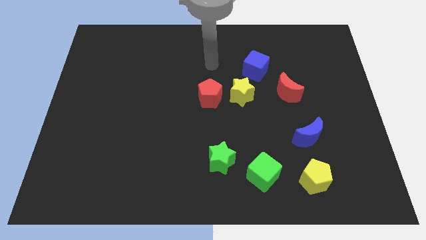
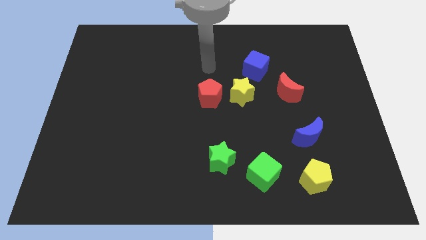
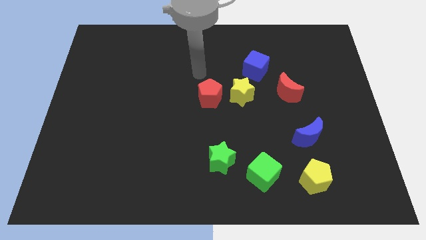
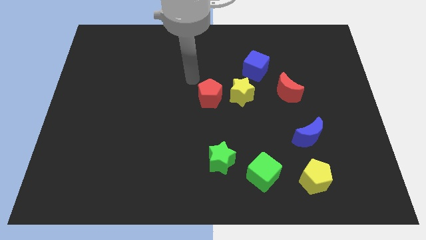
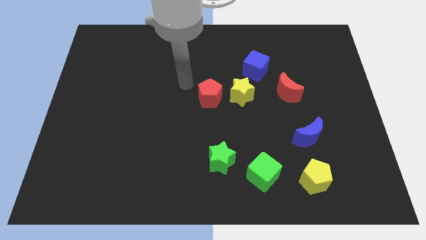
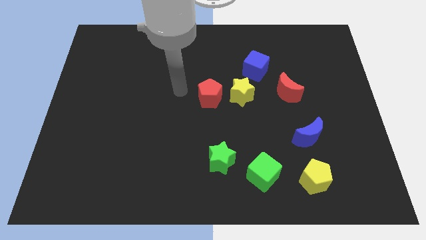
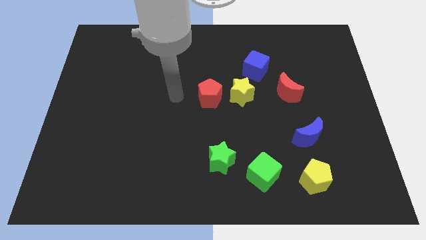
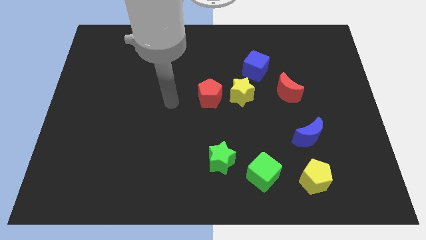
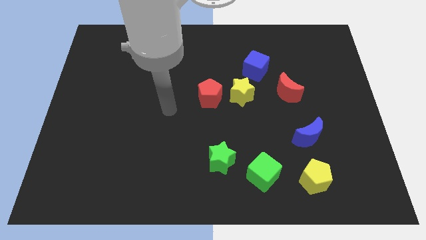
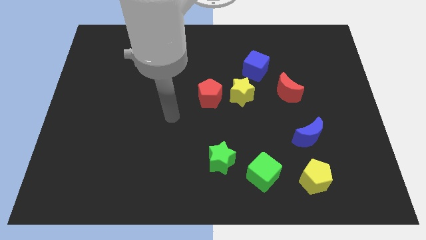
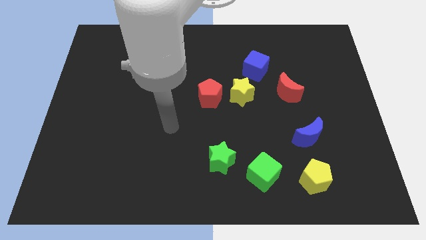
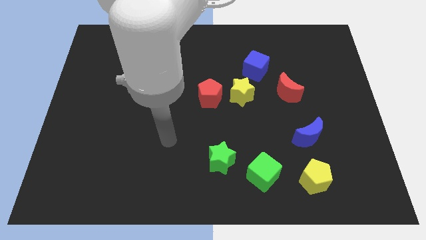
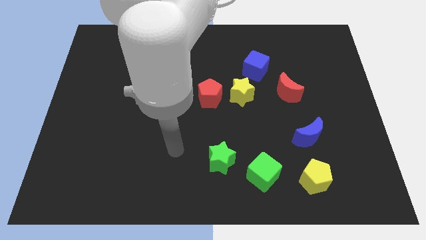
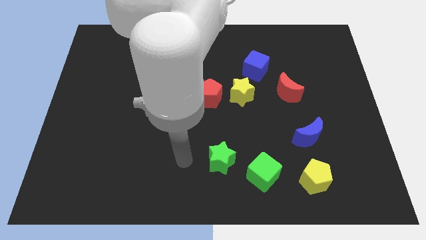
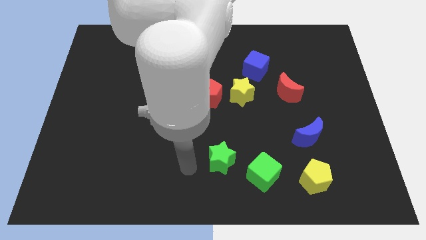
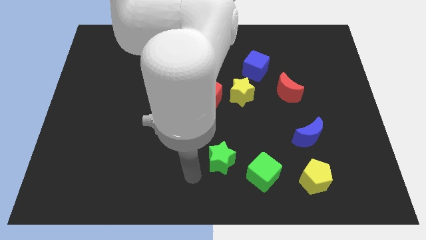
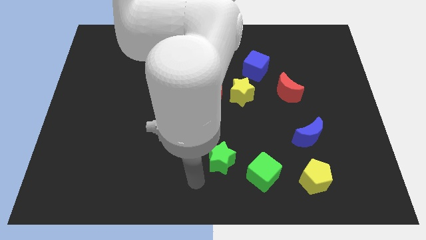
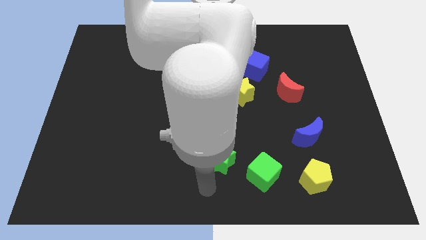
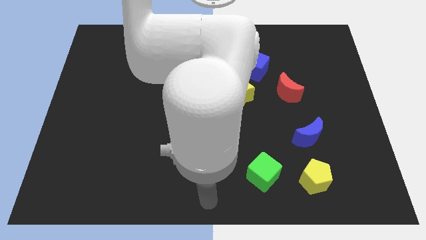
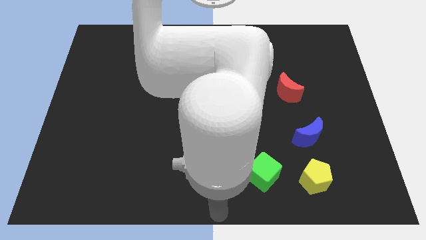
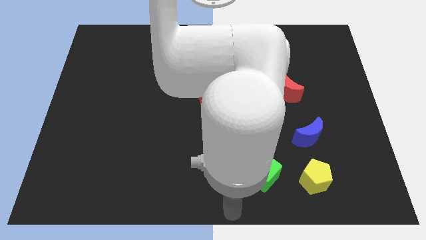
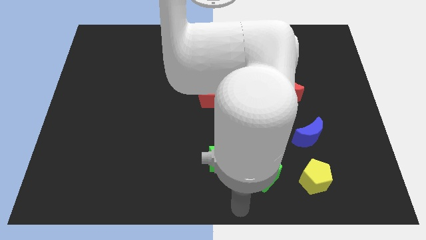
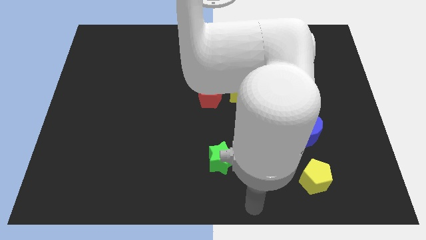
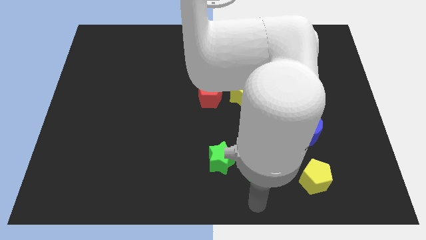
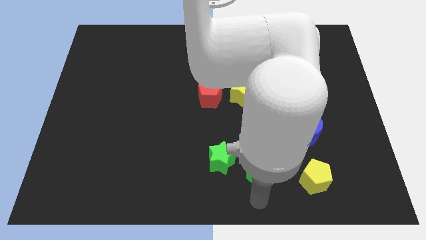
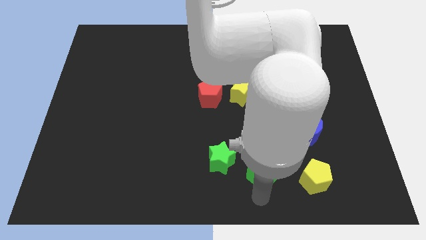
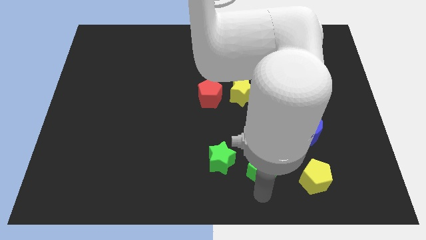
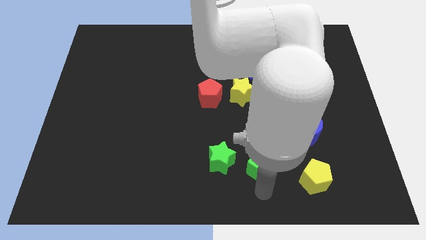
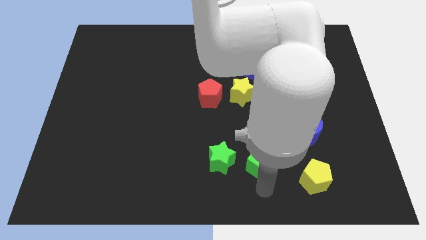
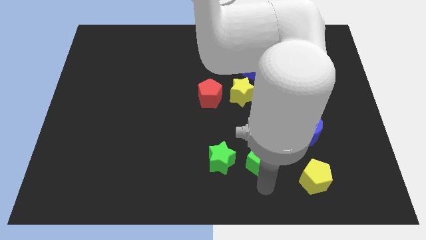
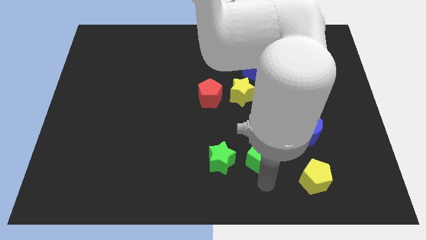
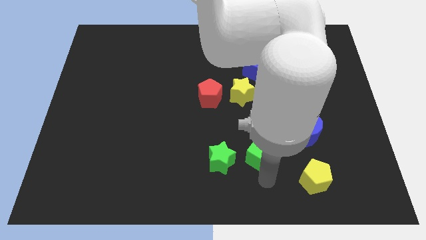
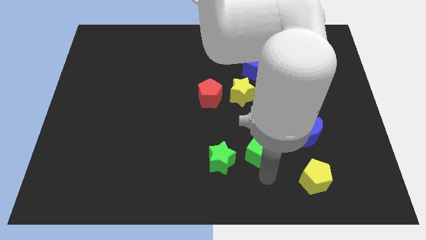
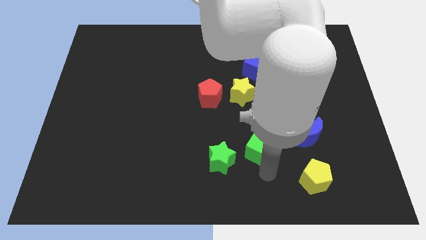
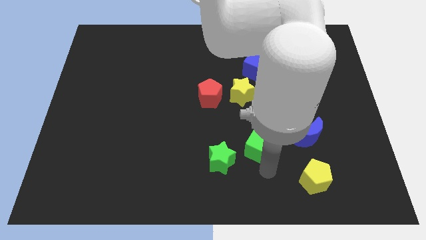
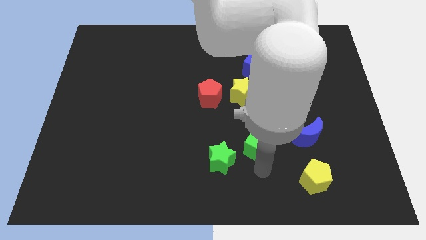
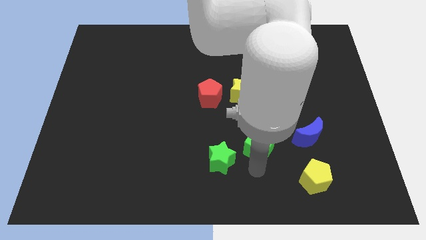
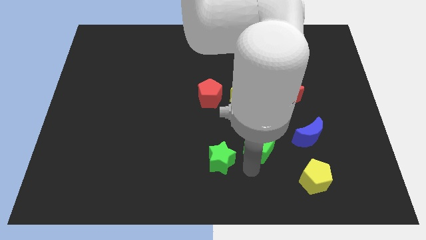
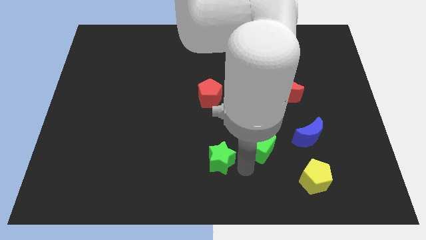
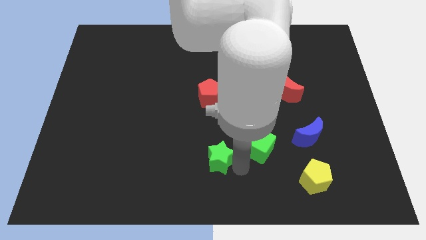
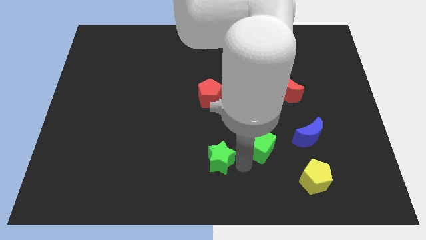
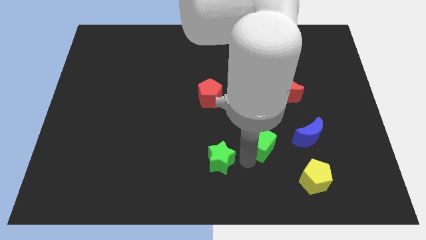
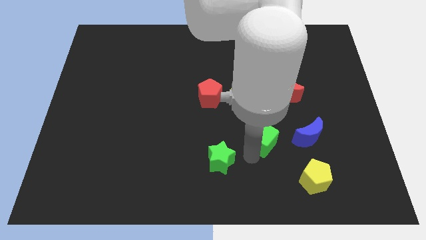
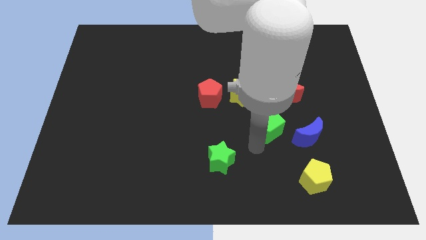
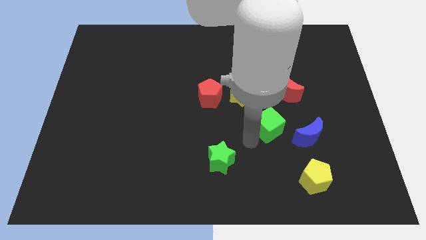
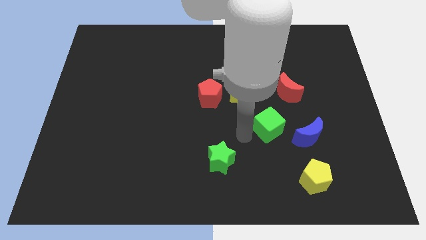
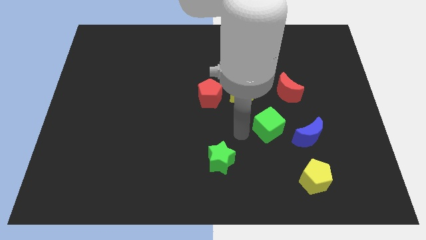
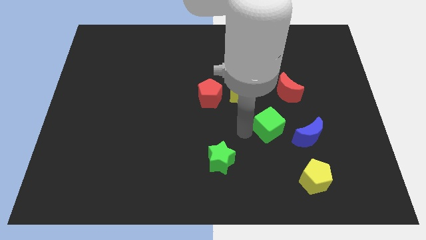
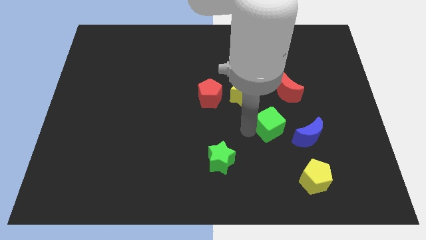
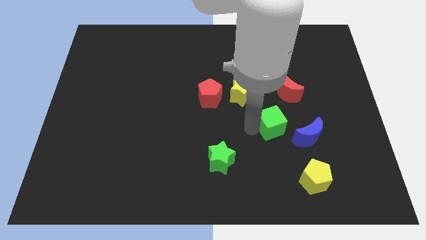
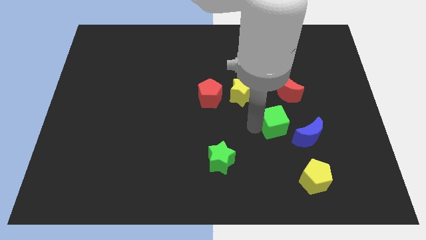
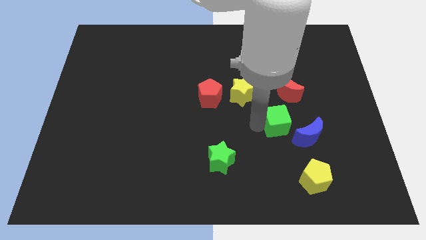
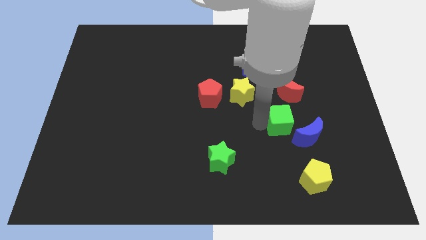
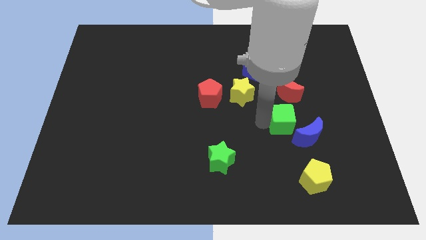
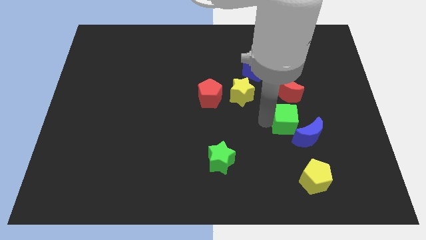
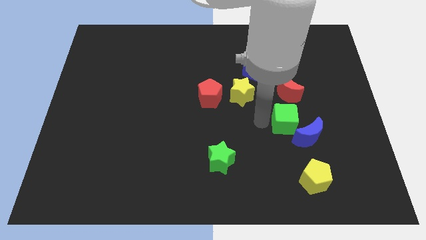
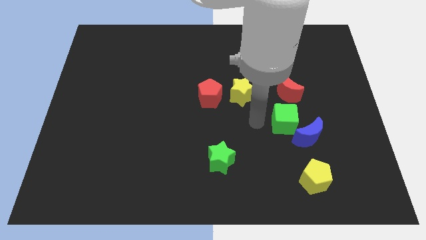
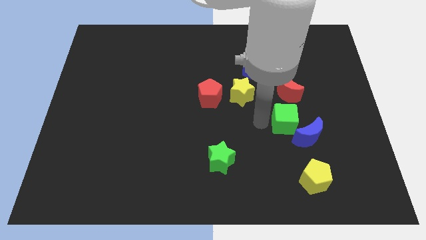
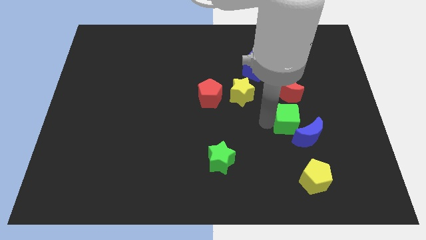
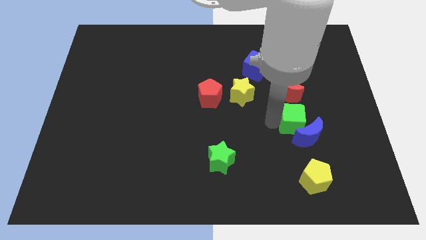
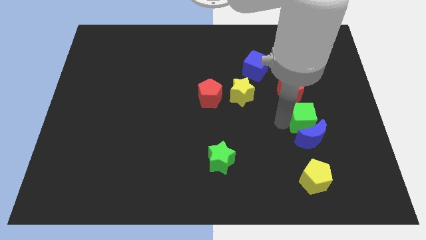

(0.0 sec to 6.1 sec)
slide the green cube to the top right of the blue moon
